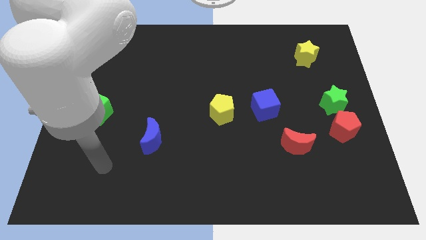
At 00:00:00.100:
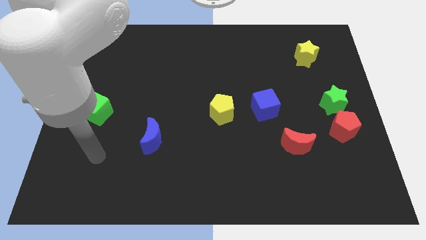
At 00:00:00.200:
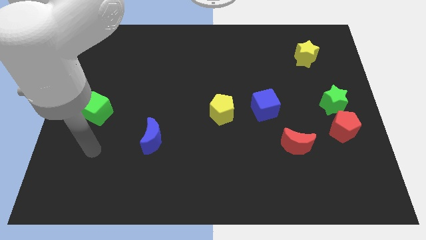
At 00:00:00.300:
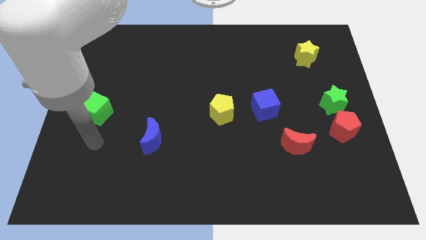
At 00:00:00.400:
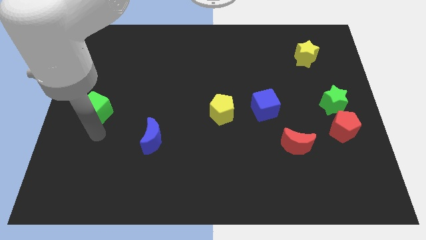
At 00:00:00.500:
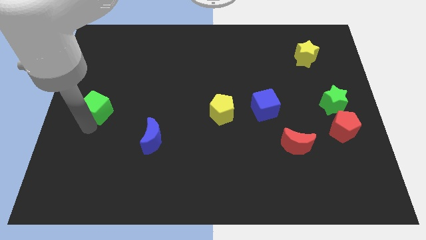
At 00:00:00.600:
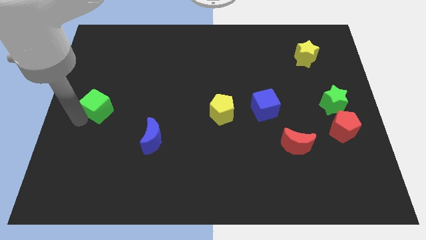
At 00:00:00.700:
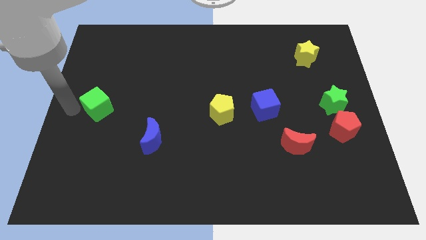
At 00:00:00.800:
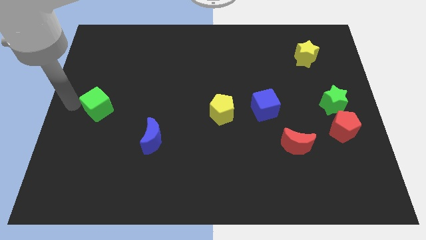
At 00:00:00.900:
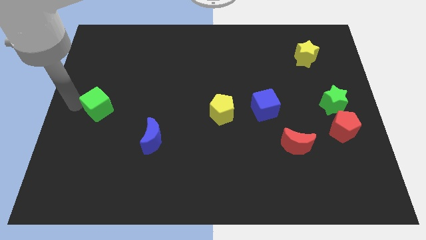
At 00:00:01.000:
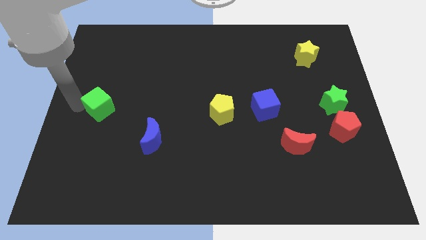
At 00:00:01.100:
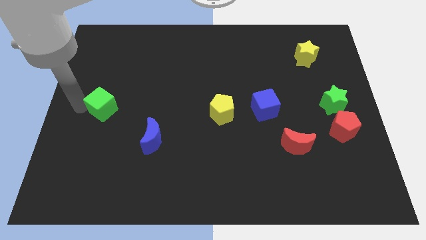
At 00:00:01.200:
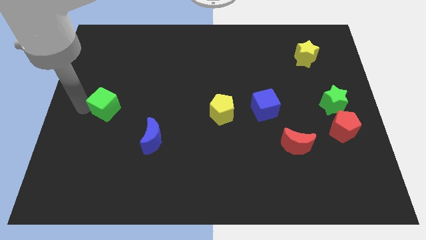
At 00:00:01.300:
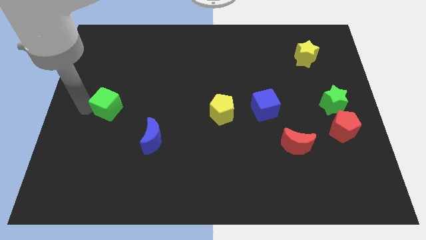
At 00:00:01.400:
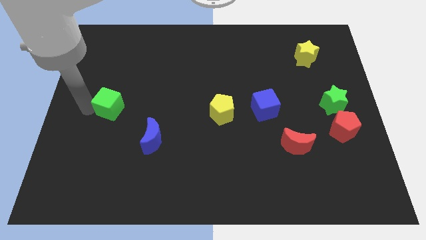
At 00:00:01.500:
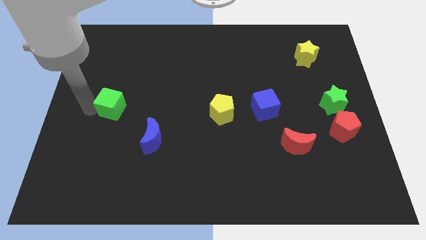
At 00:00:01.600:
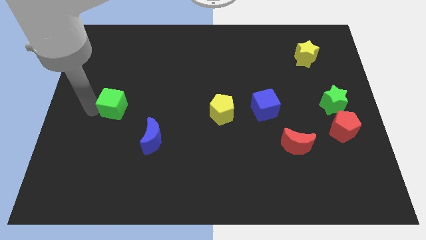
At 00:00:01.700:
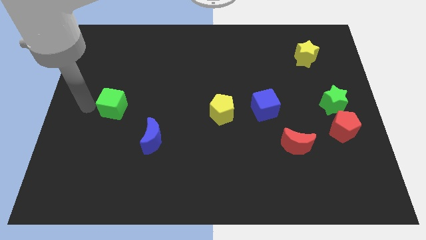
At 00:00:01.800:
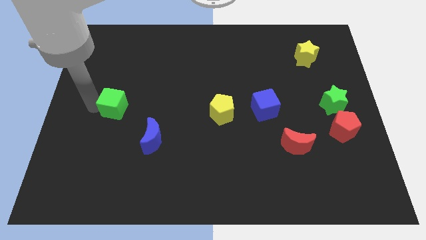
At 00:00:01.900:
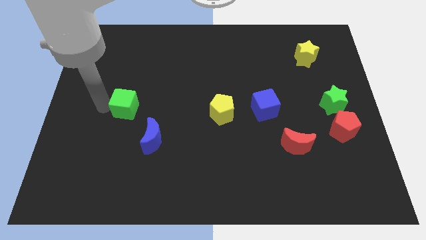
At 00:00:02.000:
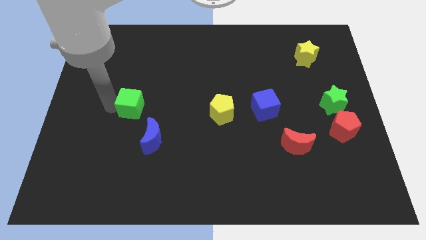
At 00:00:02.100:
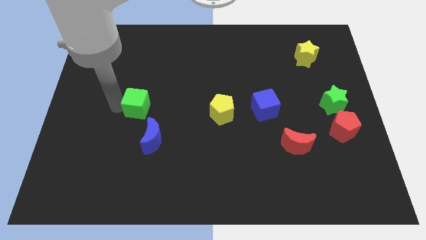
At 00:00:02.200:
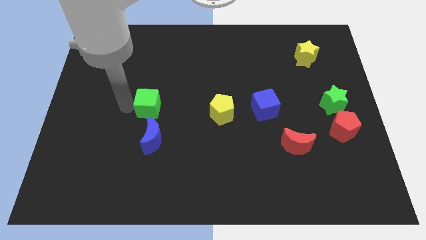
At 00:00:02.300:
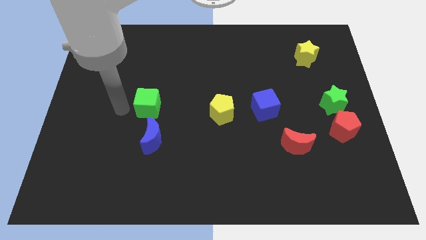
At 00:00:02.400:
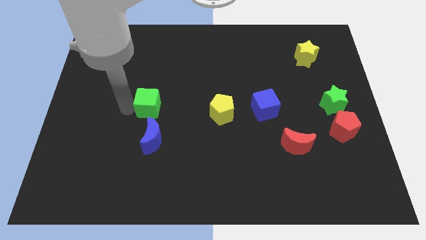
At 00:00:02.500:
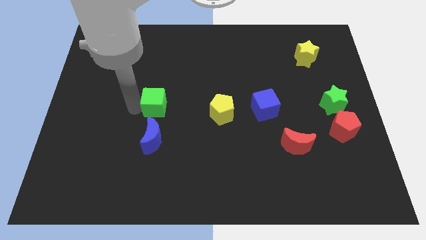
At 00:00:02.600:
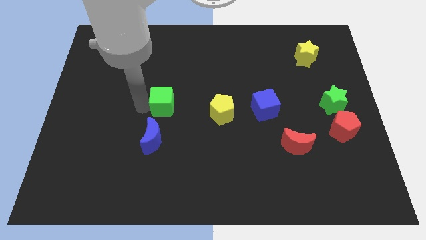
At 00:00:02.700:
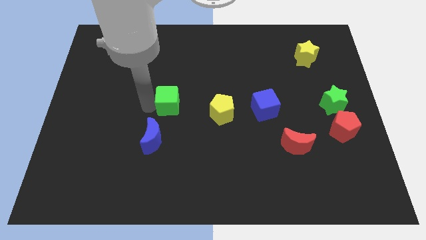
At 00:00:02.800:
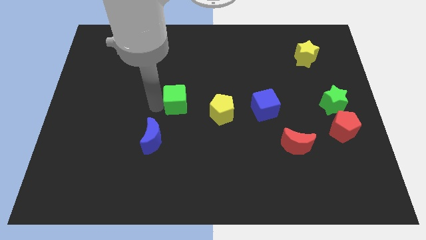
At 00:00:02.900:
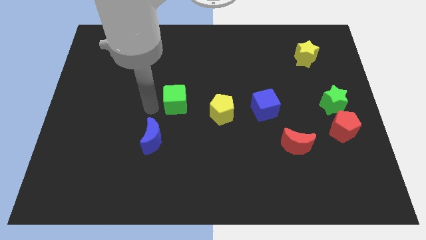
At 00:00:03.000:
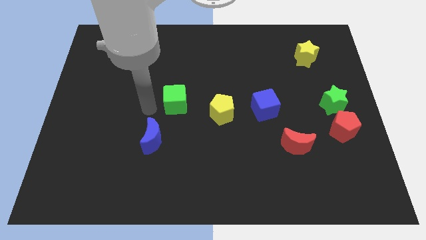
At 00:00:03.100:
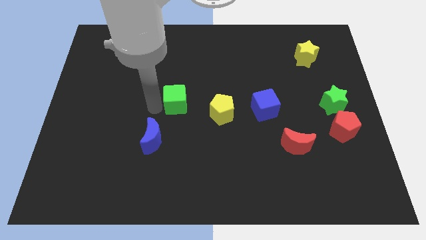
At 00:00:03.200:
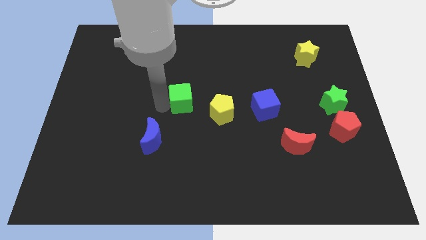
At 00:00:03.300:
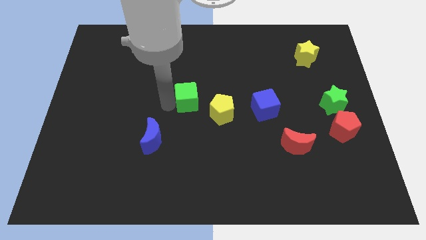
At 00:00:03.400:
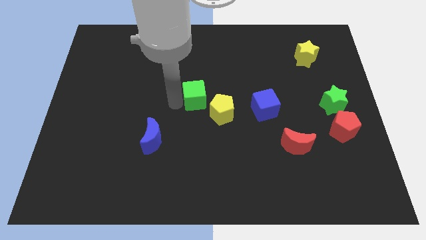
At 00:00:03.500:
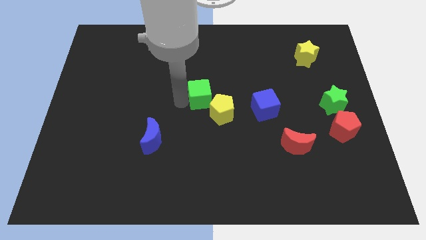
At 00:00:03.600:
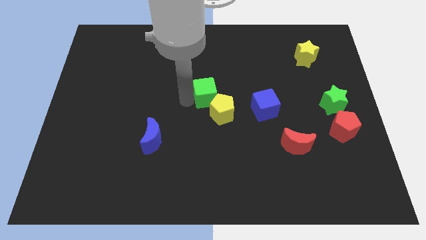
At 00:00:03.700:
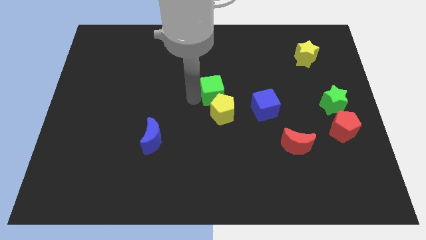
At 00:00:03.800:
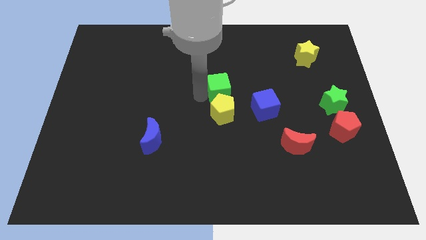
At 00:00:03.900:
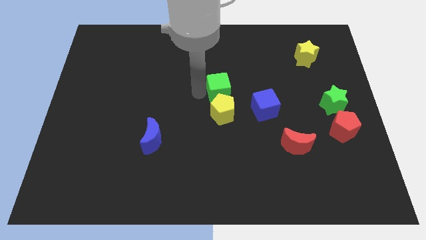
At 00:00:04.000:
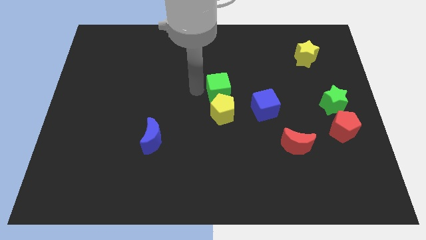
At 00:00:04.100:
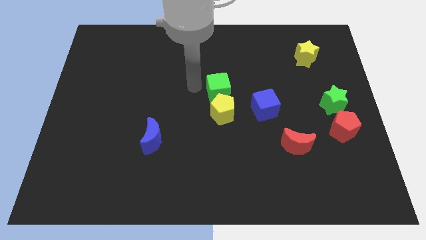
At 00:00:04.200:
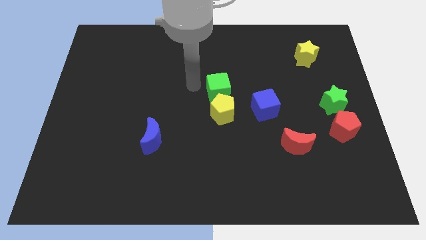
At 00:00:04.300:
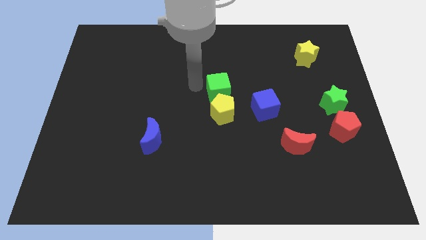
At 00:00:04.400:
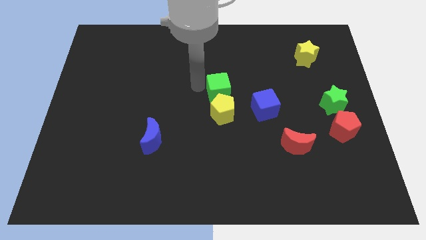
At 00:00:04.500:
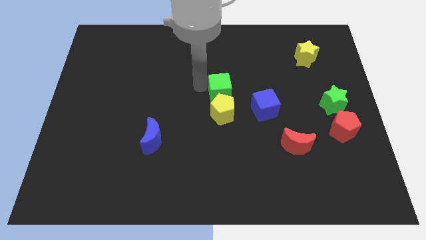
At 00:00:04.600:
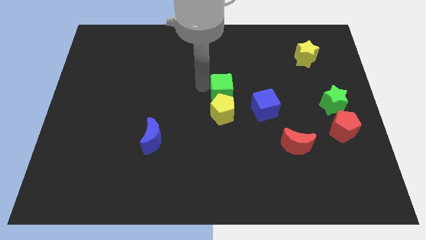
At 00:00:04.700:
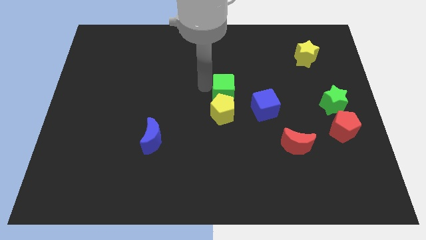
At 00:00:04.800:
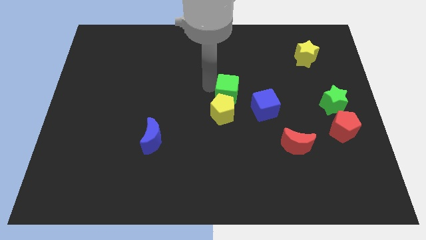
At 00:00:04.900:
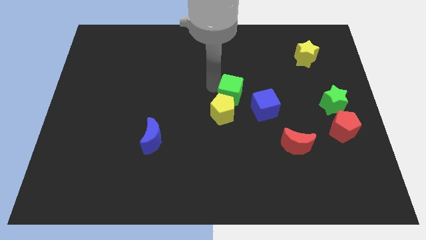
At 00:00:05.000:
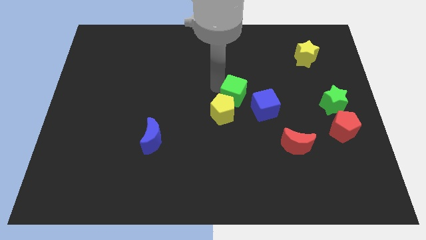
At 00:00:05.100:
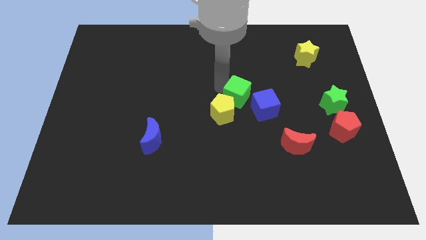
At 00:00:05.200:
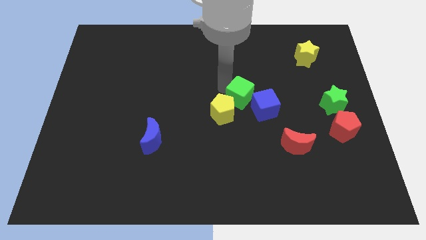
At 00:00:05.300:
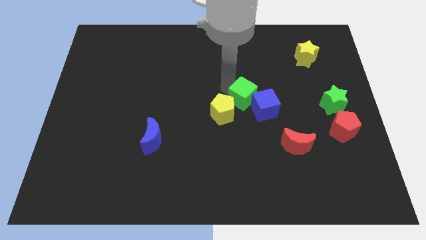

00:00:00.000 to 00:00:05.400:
slide the green cube towards the blue cube

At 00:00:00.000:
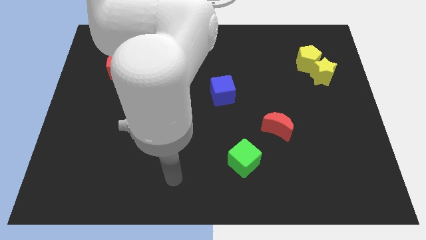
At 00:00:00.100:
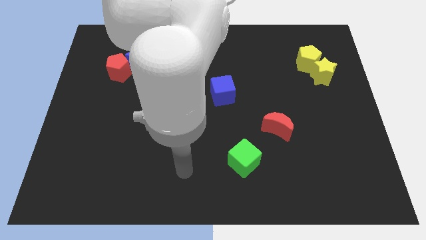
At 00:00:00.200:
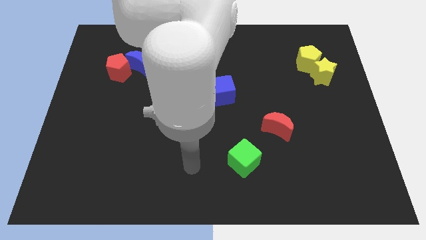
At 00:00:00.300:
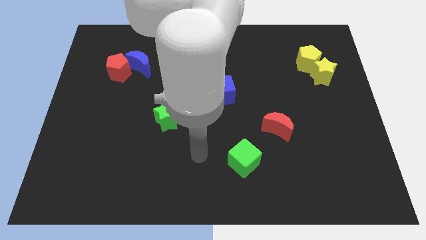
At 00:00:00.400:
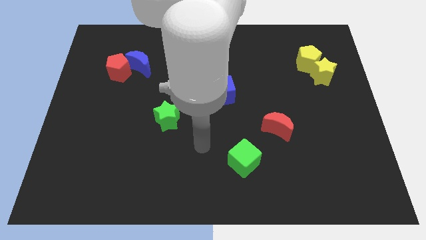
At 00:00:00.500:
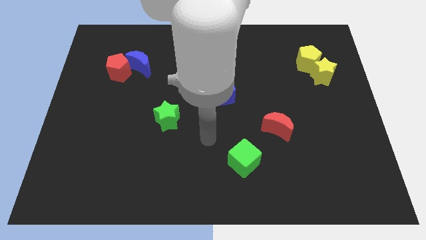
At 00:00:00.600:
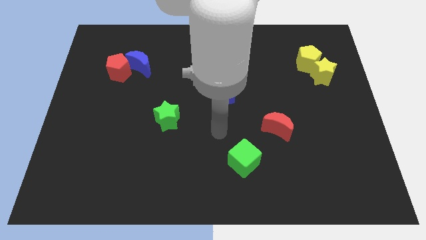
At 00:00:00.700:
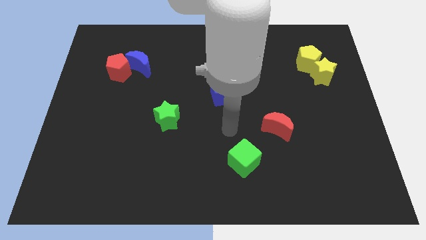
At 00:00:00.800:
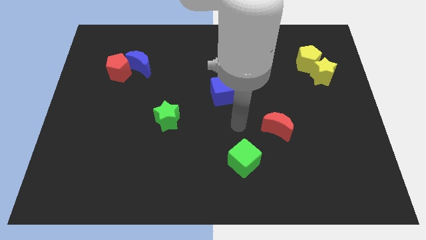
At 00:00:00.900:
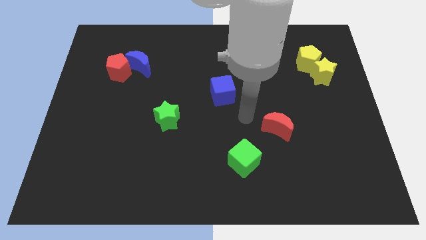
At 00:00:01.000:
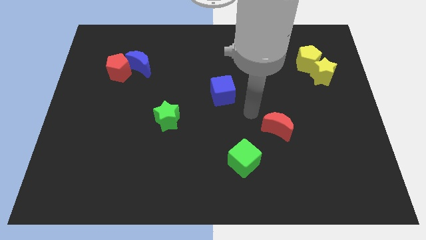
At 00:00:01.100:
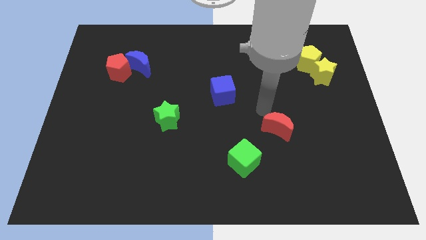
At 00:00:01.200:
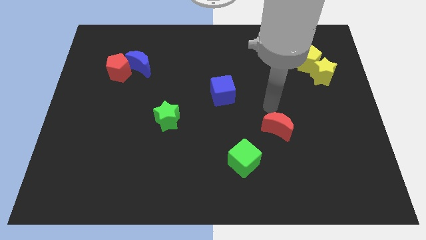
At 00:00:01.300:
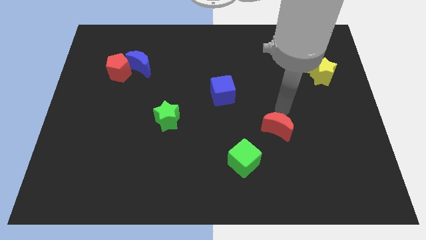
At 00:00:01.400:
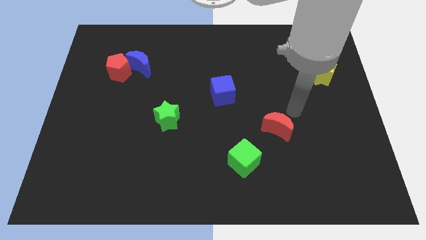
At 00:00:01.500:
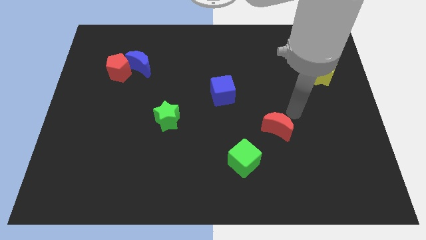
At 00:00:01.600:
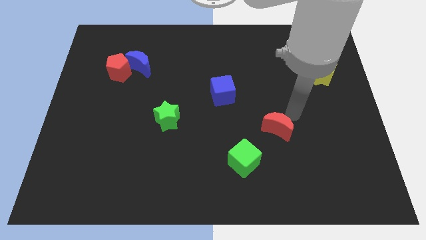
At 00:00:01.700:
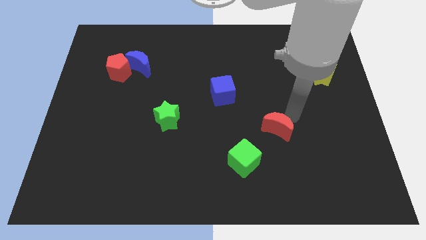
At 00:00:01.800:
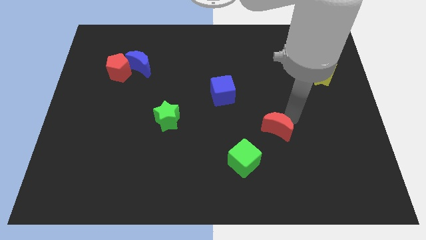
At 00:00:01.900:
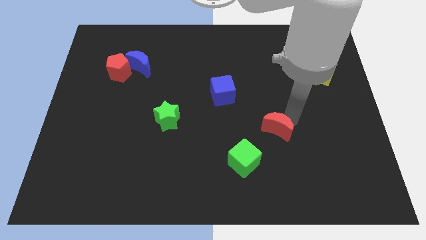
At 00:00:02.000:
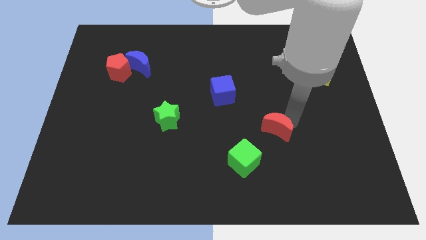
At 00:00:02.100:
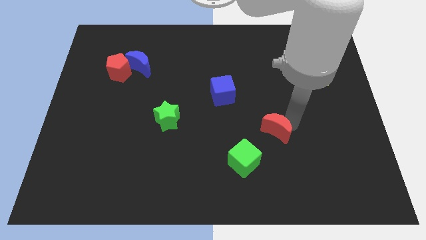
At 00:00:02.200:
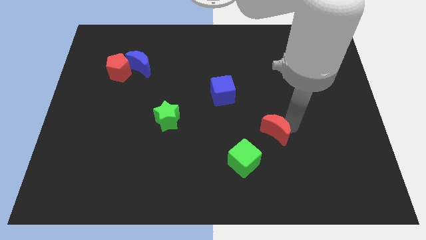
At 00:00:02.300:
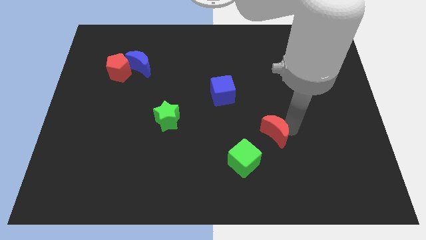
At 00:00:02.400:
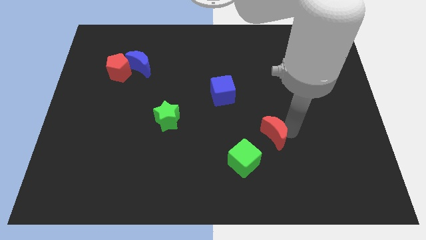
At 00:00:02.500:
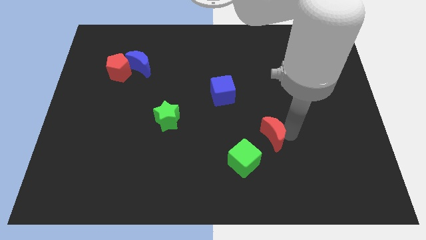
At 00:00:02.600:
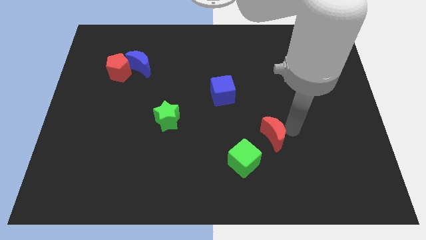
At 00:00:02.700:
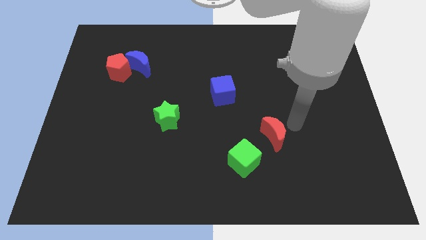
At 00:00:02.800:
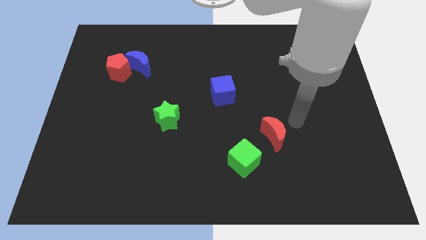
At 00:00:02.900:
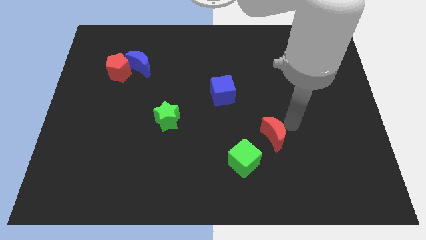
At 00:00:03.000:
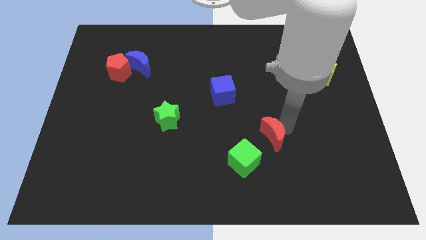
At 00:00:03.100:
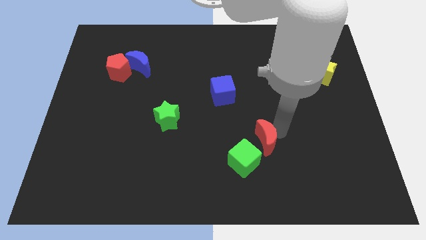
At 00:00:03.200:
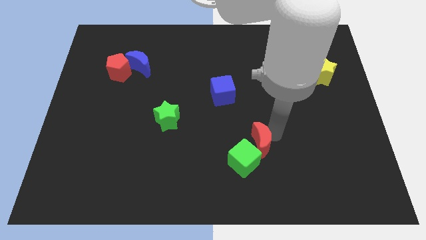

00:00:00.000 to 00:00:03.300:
move the red moon next to the green cube
